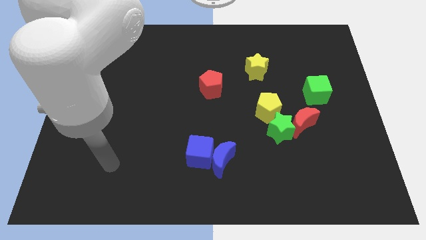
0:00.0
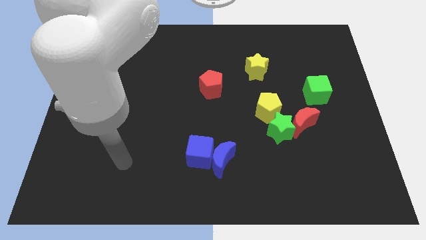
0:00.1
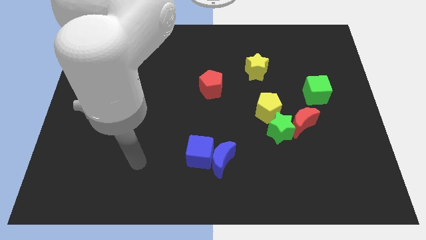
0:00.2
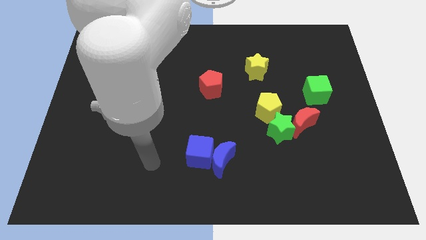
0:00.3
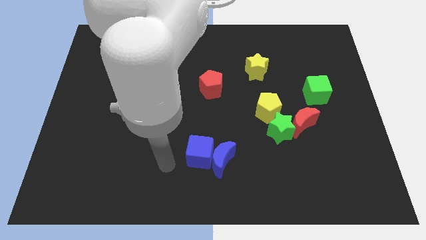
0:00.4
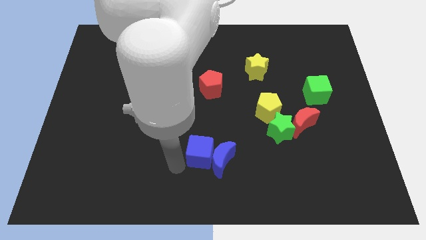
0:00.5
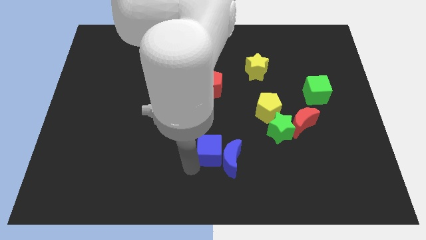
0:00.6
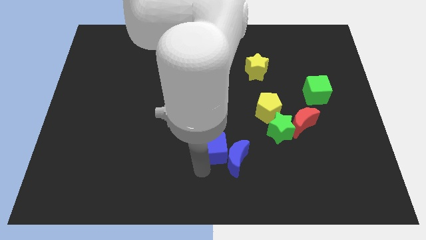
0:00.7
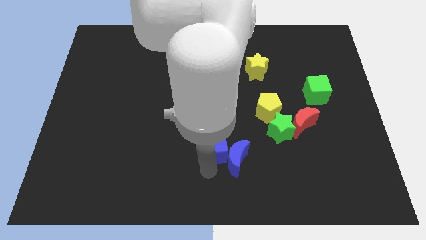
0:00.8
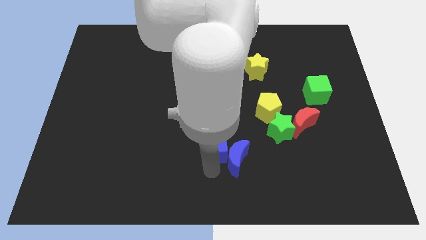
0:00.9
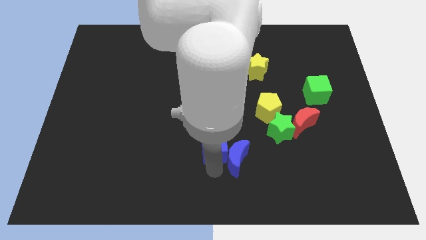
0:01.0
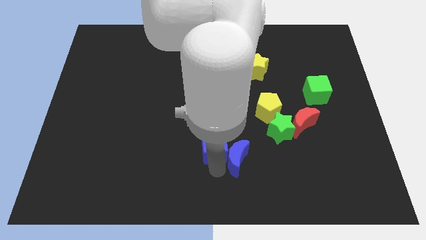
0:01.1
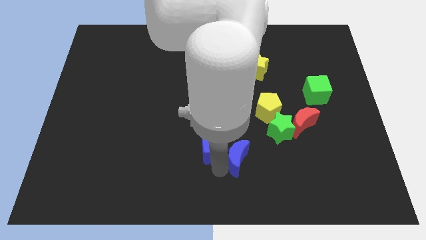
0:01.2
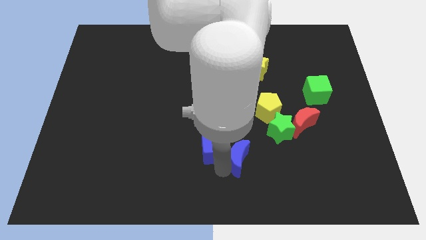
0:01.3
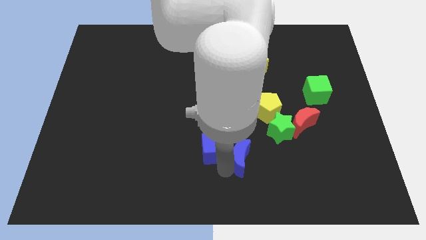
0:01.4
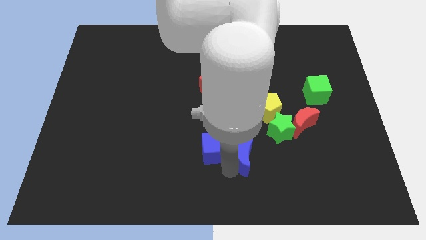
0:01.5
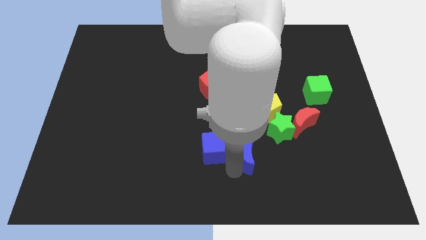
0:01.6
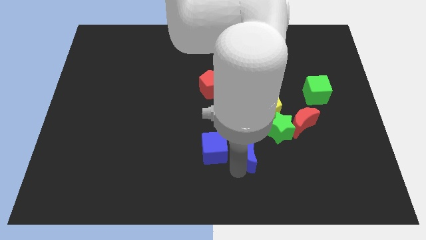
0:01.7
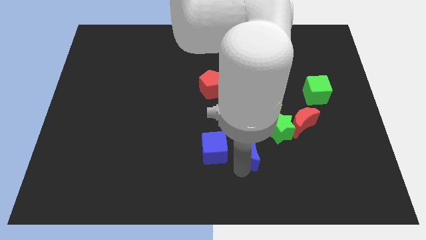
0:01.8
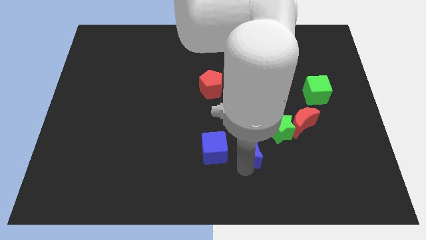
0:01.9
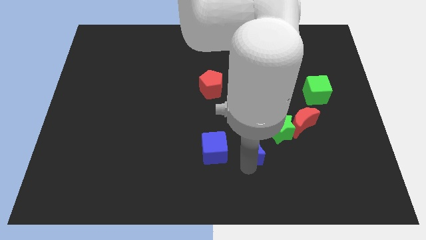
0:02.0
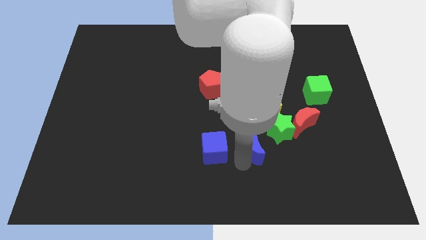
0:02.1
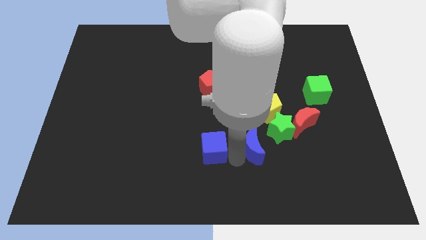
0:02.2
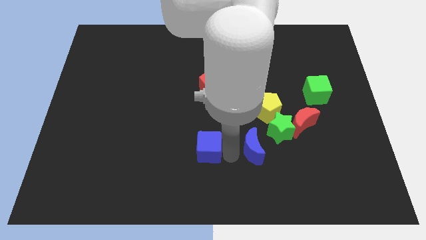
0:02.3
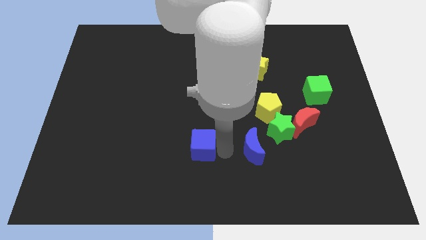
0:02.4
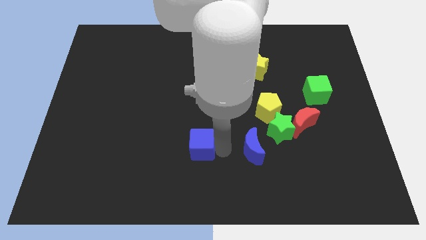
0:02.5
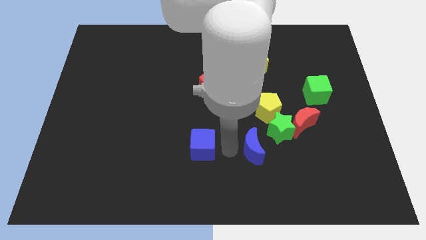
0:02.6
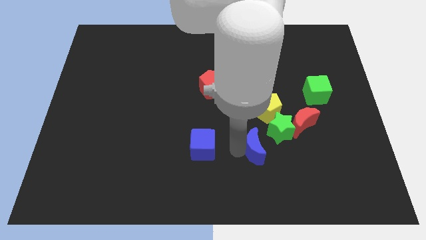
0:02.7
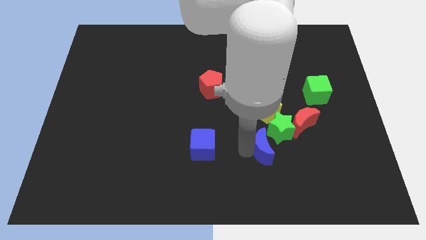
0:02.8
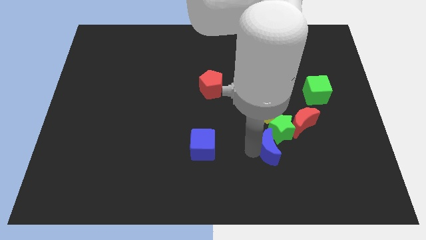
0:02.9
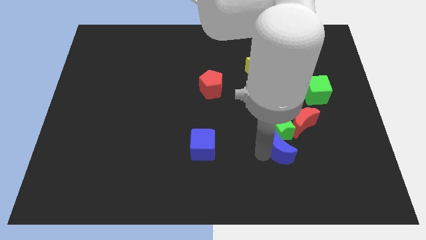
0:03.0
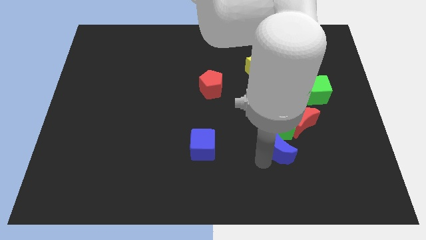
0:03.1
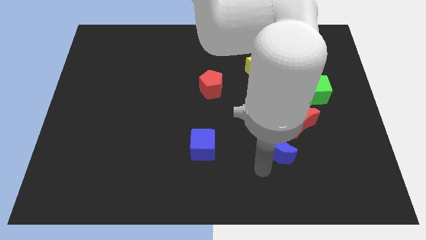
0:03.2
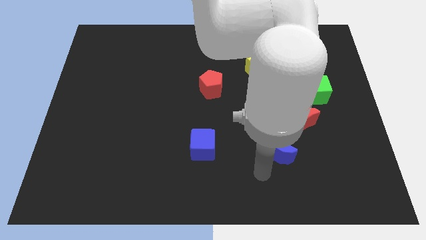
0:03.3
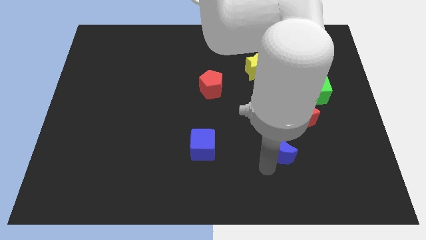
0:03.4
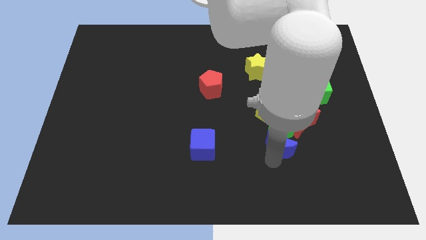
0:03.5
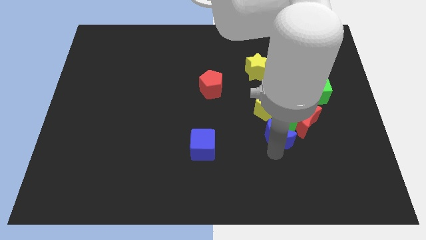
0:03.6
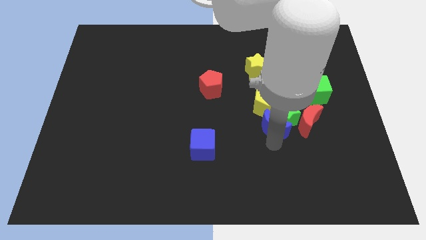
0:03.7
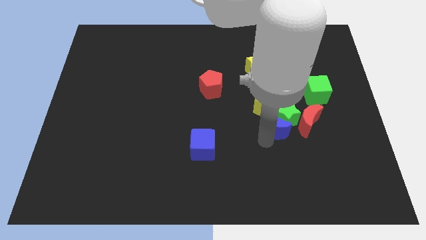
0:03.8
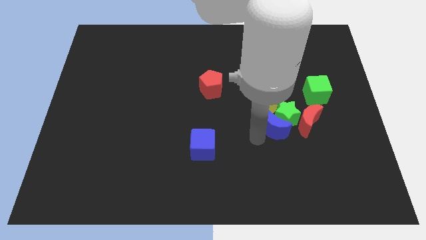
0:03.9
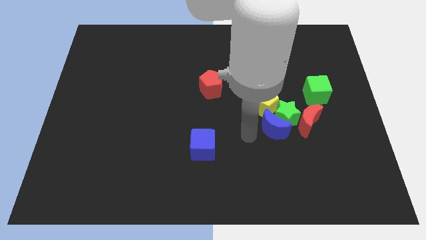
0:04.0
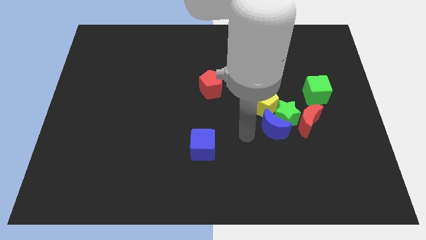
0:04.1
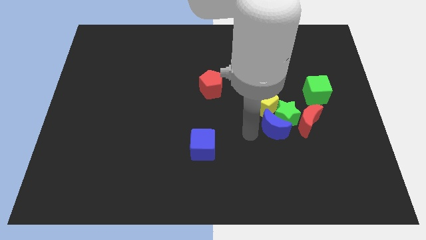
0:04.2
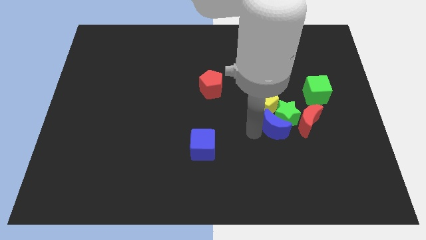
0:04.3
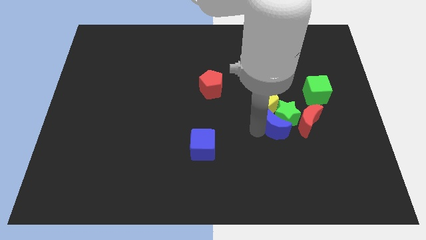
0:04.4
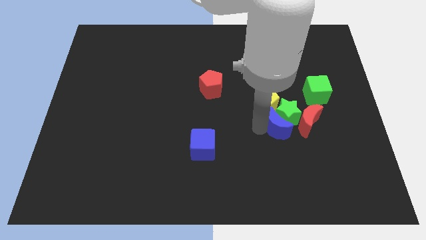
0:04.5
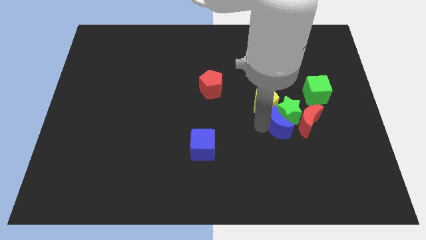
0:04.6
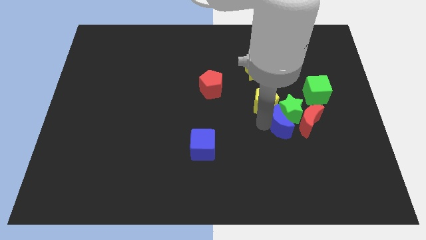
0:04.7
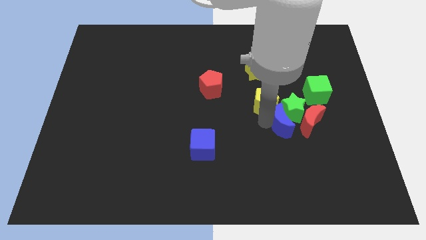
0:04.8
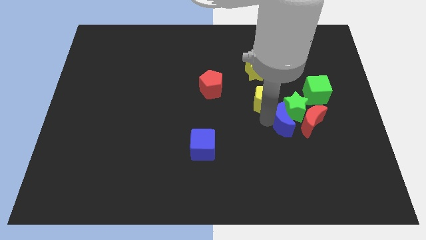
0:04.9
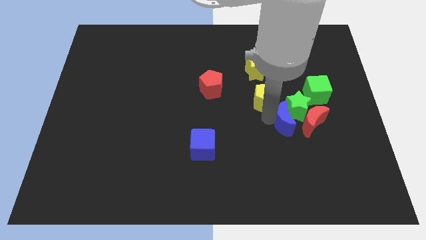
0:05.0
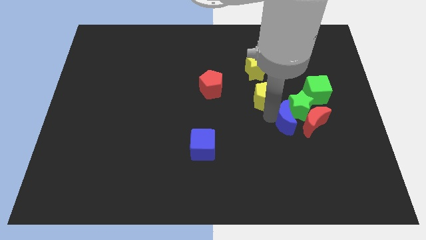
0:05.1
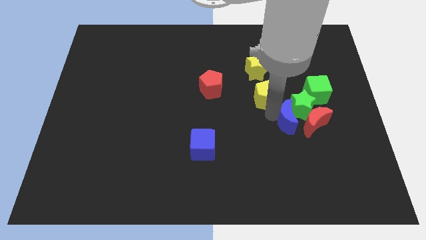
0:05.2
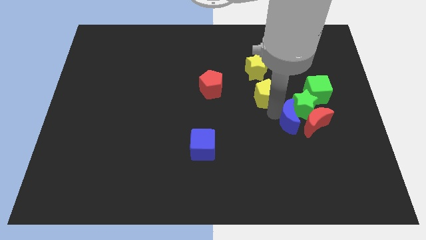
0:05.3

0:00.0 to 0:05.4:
move the blue moon next to the red moon
